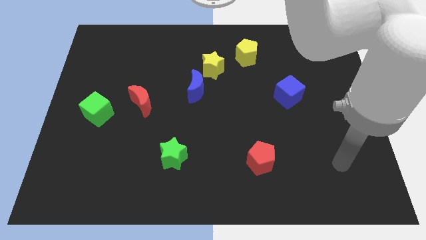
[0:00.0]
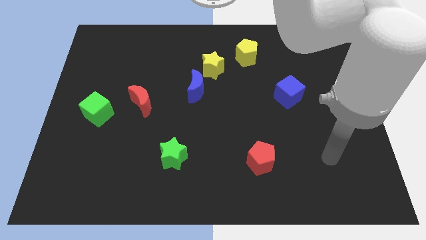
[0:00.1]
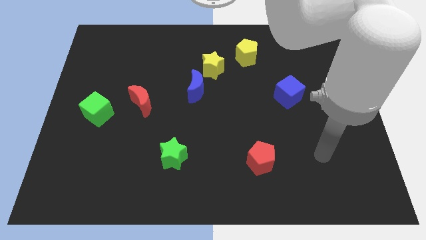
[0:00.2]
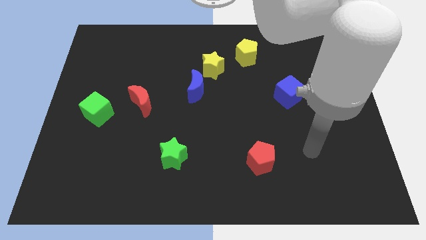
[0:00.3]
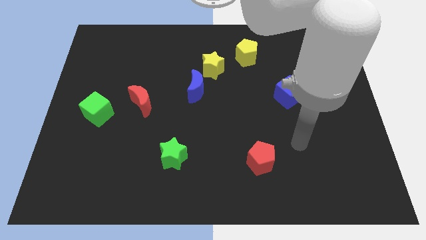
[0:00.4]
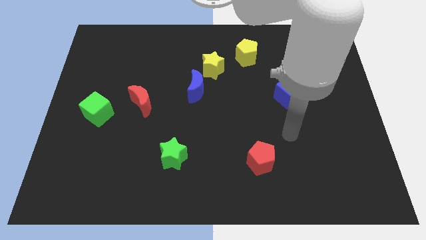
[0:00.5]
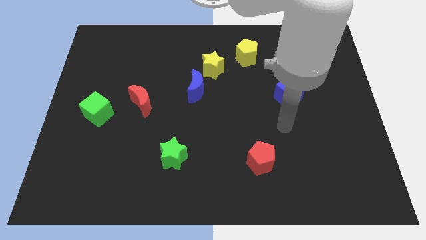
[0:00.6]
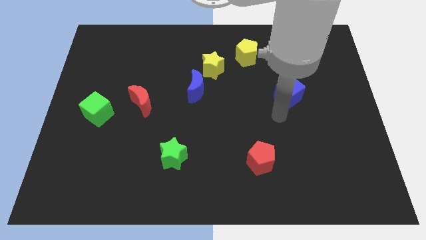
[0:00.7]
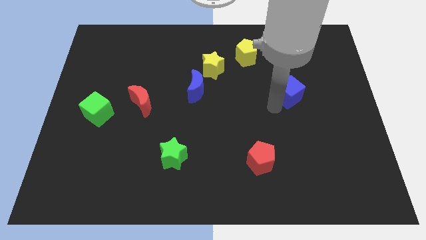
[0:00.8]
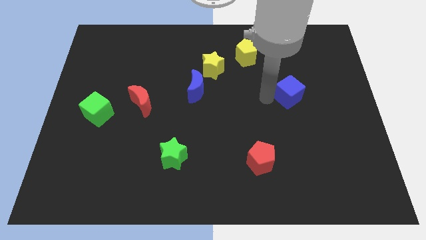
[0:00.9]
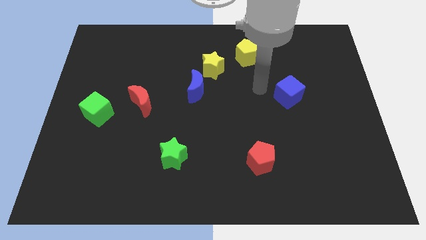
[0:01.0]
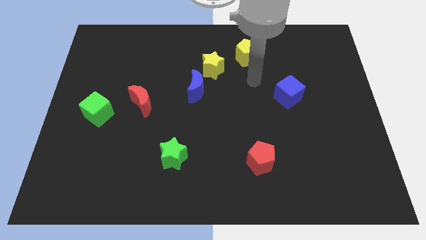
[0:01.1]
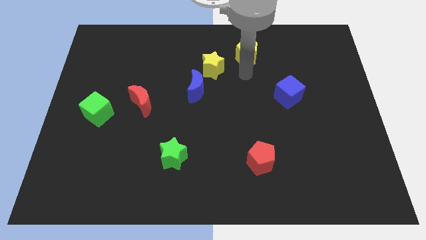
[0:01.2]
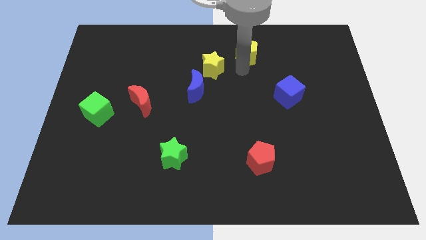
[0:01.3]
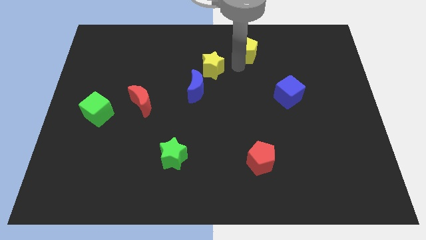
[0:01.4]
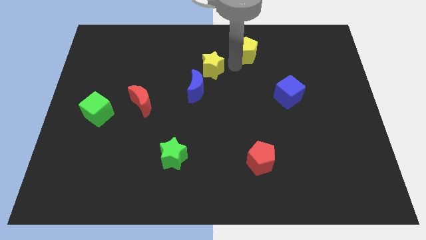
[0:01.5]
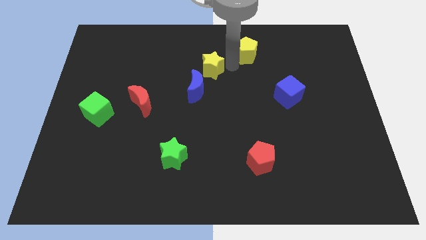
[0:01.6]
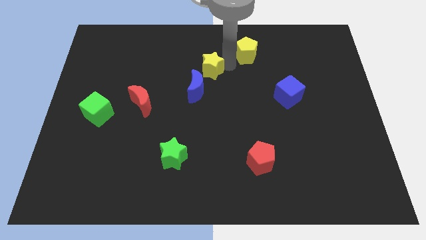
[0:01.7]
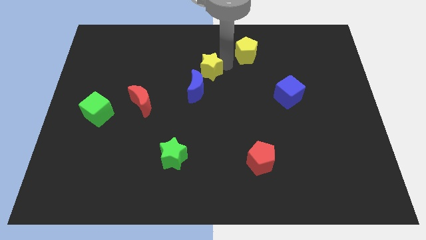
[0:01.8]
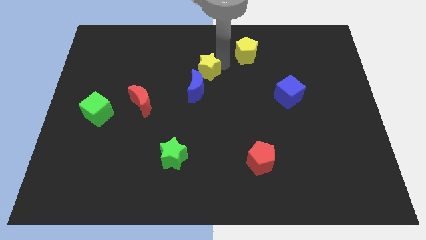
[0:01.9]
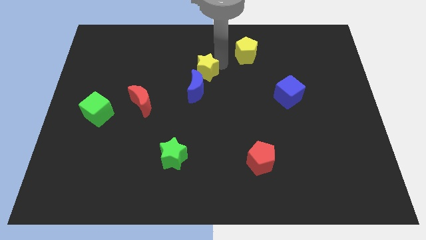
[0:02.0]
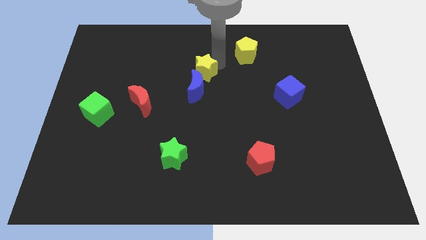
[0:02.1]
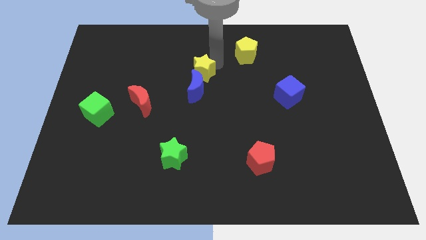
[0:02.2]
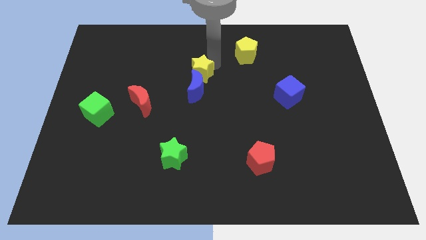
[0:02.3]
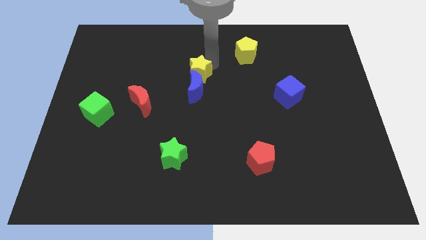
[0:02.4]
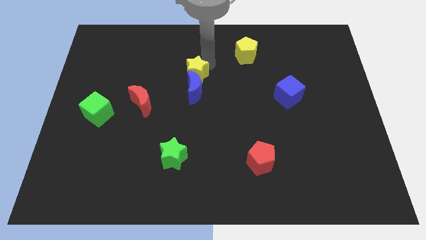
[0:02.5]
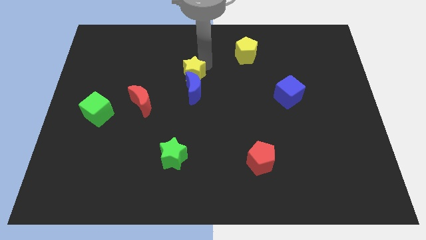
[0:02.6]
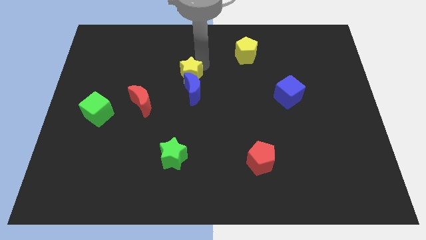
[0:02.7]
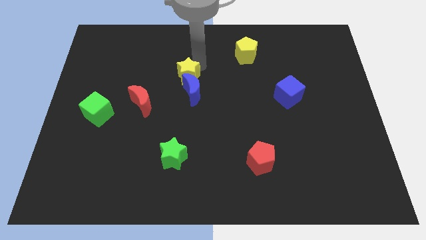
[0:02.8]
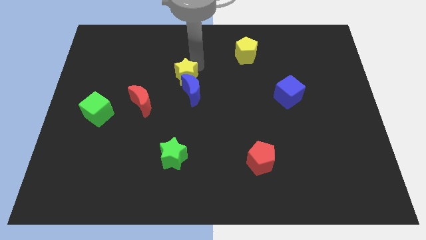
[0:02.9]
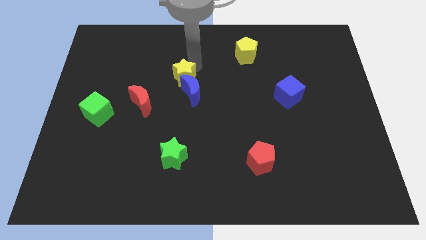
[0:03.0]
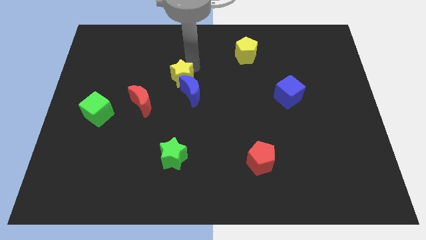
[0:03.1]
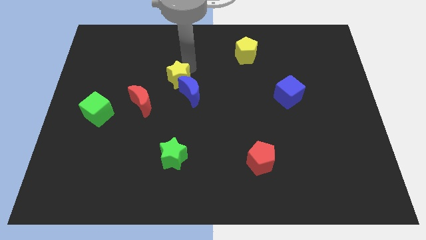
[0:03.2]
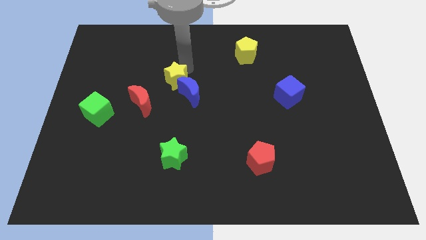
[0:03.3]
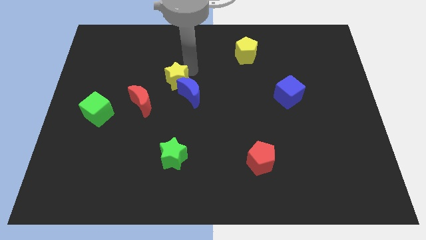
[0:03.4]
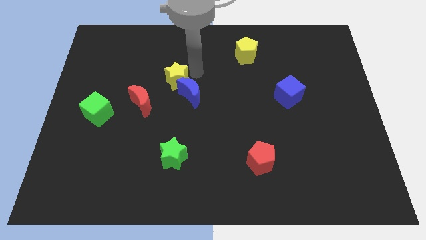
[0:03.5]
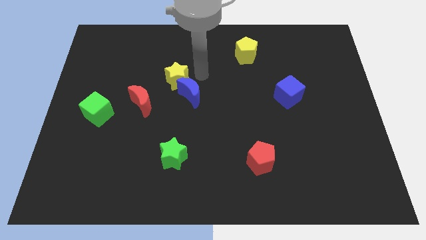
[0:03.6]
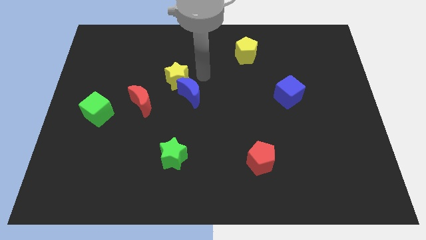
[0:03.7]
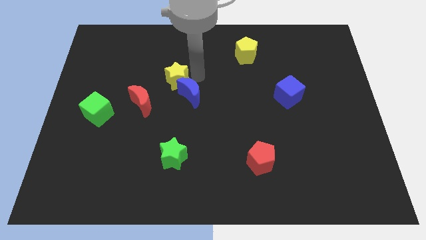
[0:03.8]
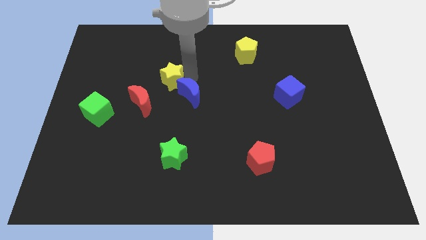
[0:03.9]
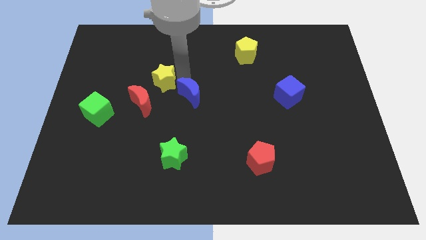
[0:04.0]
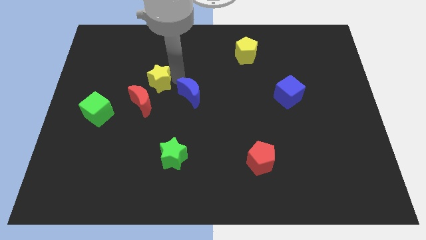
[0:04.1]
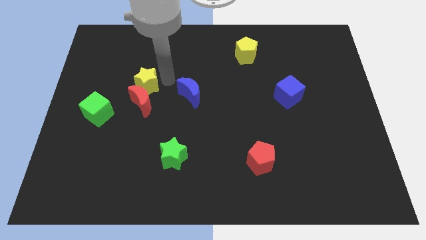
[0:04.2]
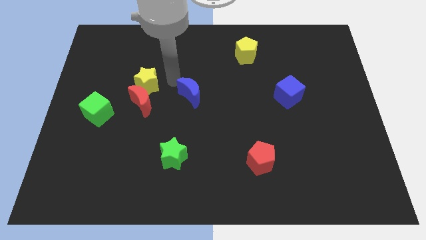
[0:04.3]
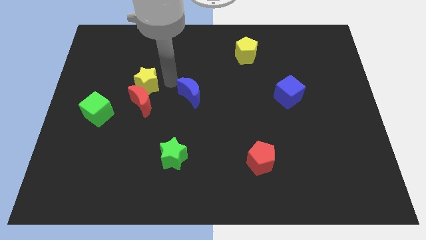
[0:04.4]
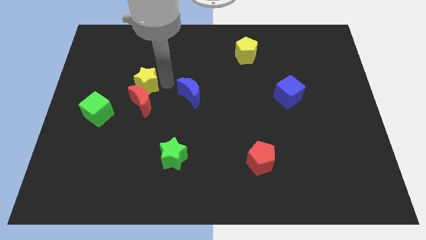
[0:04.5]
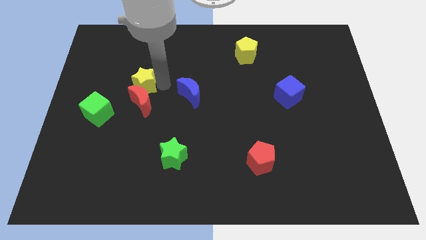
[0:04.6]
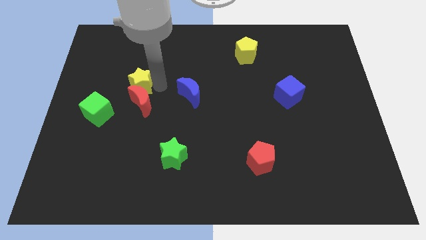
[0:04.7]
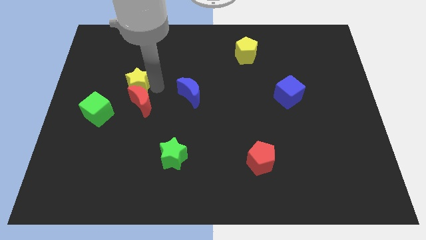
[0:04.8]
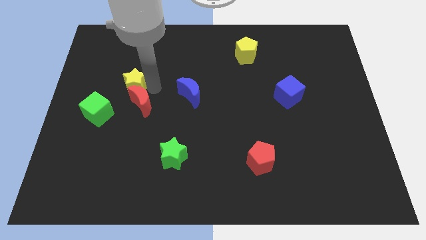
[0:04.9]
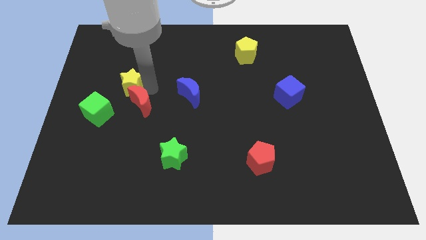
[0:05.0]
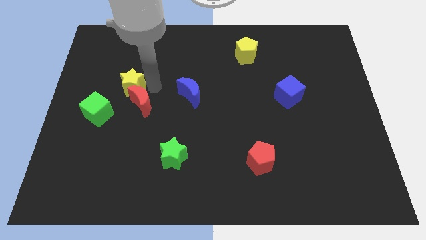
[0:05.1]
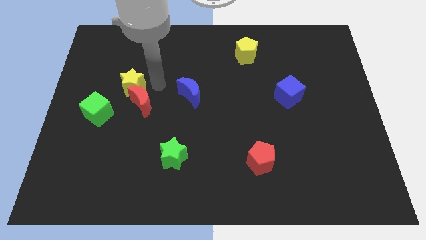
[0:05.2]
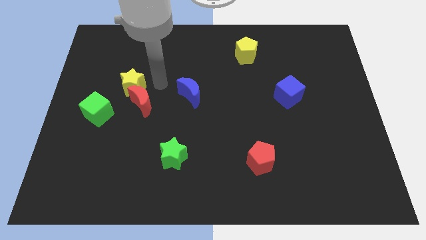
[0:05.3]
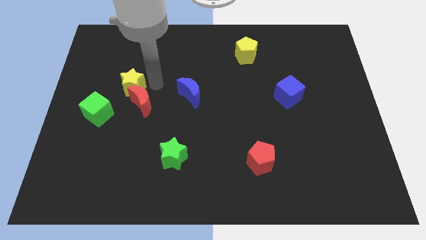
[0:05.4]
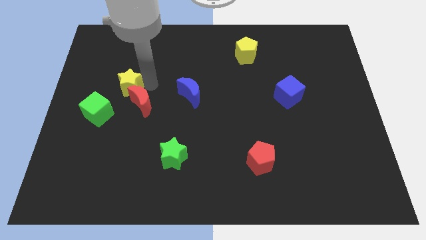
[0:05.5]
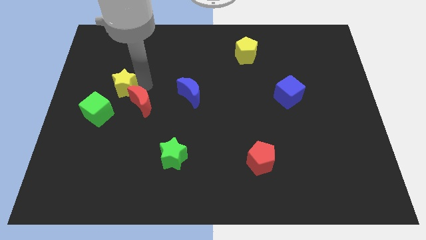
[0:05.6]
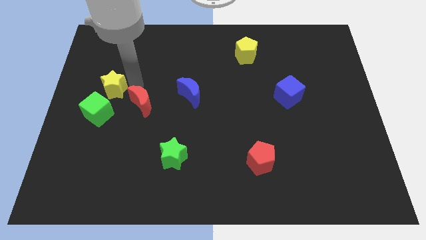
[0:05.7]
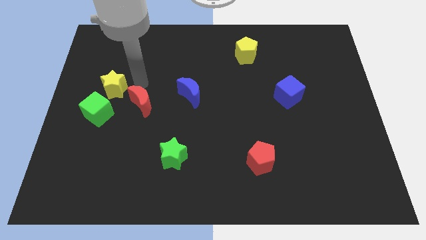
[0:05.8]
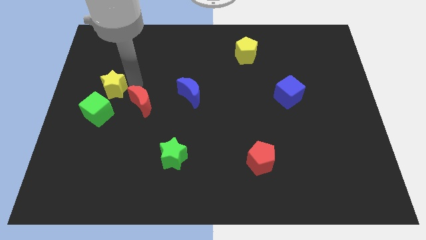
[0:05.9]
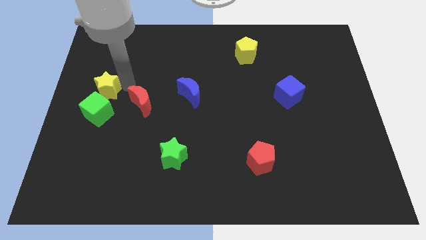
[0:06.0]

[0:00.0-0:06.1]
push the yellow star to the left side

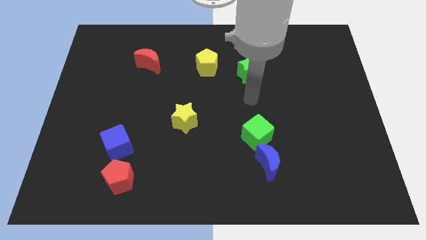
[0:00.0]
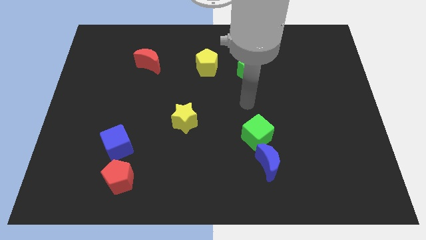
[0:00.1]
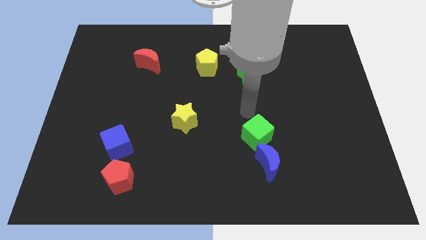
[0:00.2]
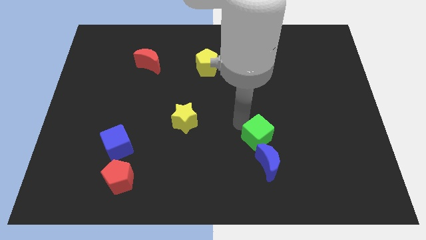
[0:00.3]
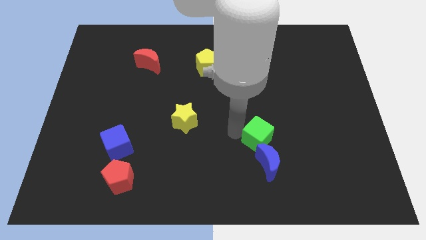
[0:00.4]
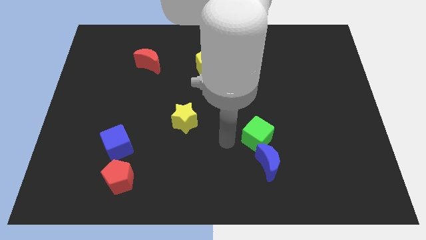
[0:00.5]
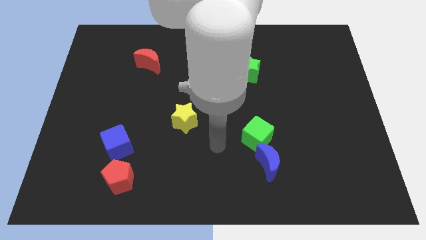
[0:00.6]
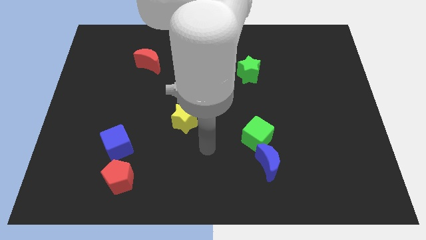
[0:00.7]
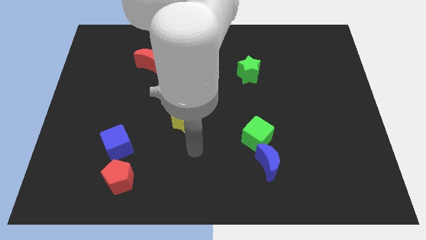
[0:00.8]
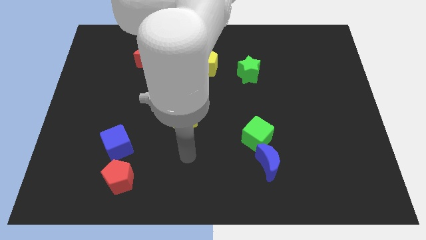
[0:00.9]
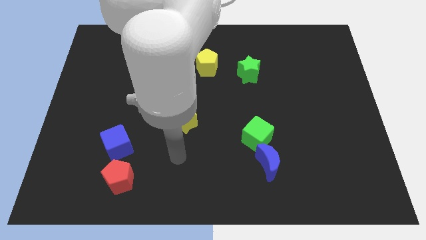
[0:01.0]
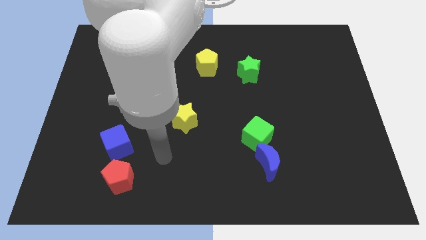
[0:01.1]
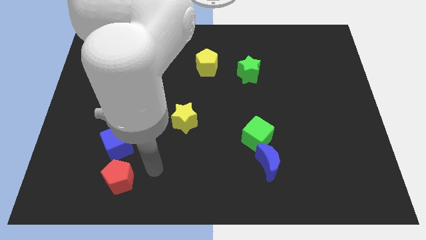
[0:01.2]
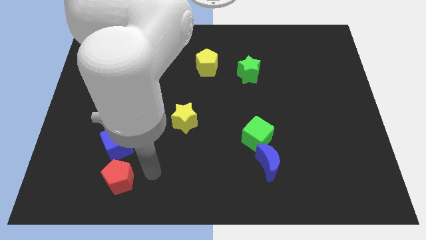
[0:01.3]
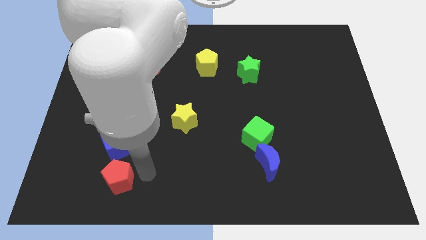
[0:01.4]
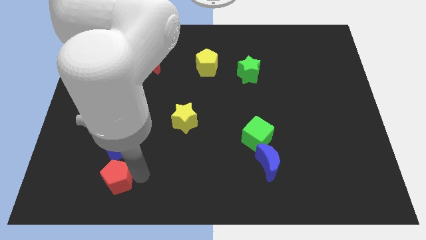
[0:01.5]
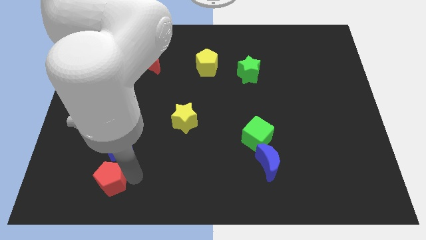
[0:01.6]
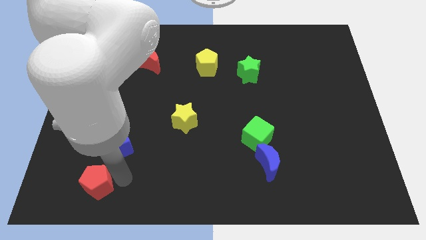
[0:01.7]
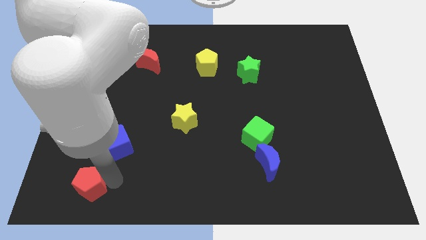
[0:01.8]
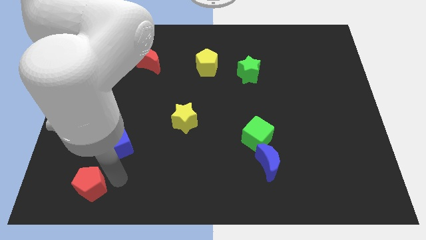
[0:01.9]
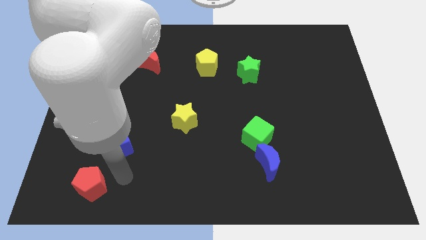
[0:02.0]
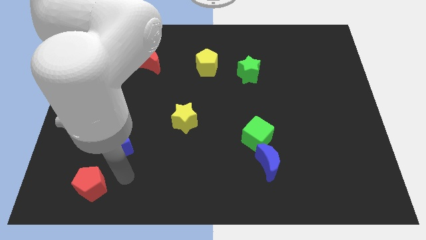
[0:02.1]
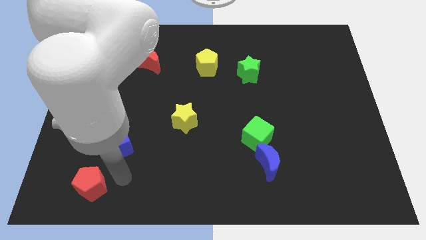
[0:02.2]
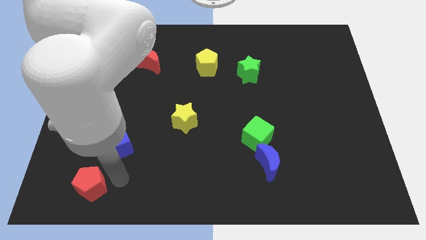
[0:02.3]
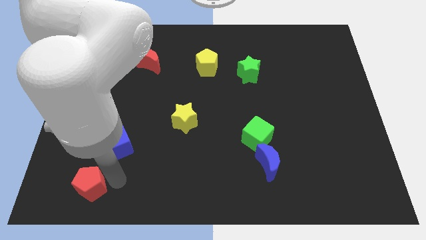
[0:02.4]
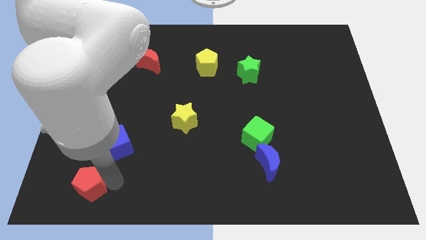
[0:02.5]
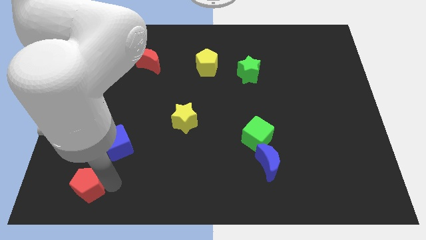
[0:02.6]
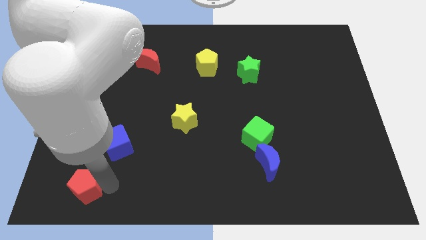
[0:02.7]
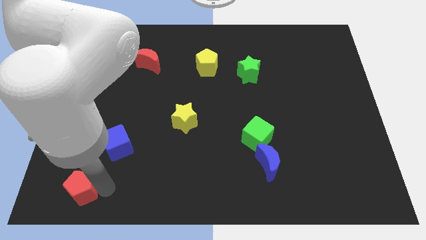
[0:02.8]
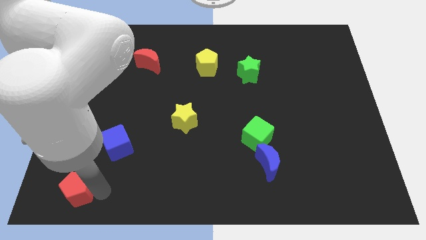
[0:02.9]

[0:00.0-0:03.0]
slide the red pentagon to the lower left corner
